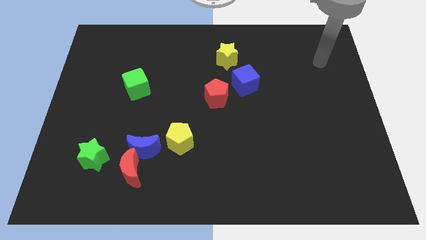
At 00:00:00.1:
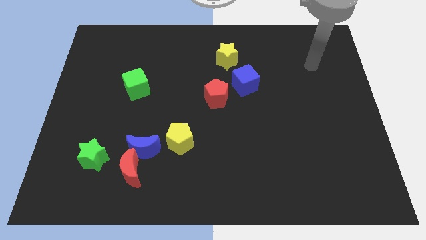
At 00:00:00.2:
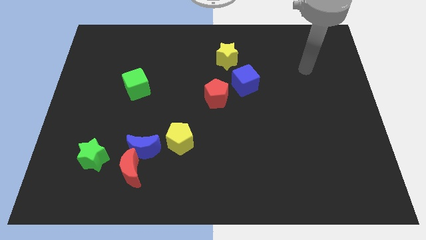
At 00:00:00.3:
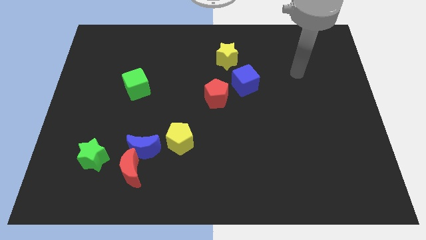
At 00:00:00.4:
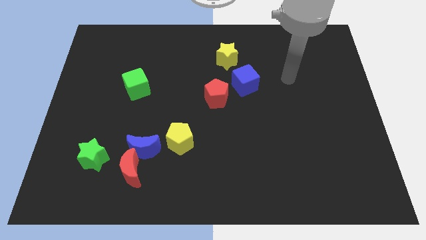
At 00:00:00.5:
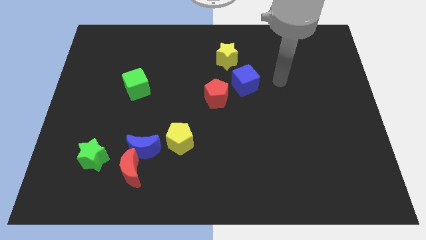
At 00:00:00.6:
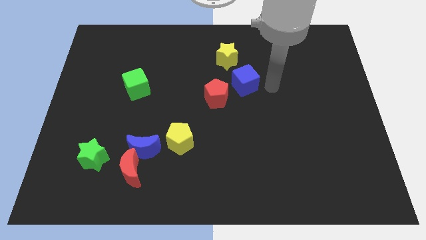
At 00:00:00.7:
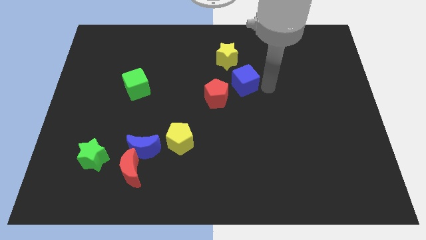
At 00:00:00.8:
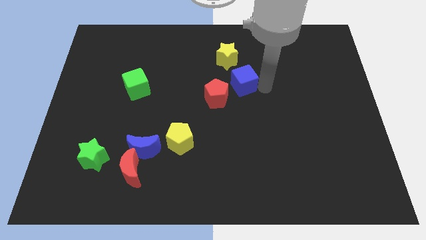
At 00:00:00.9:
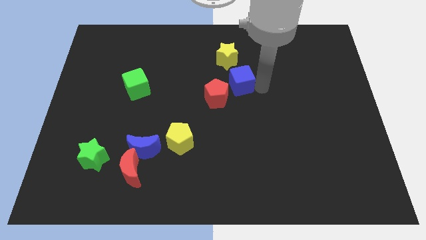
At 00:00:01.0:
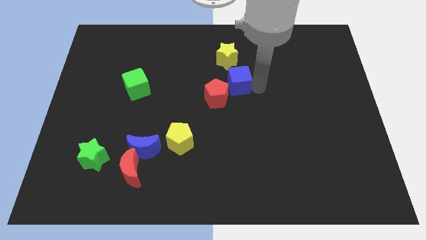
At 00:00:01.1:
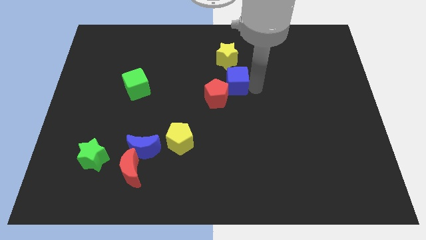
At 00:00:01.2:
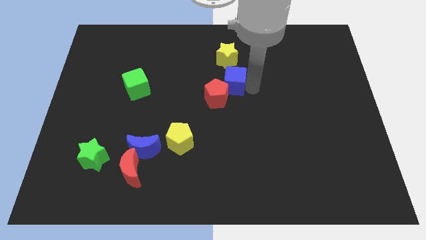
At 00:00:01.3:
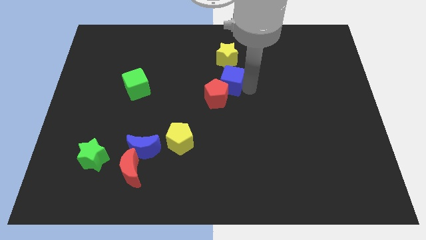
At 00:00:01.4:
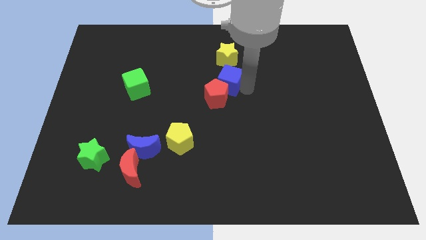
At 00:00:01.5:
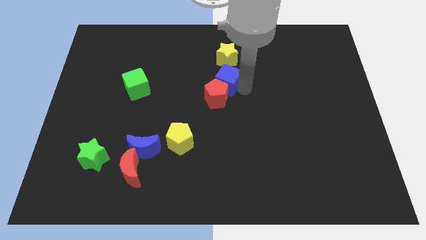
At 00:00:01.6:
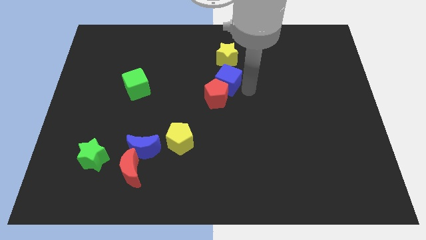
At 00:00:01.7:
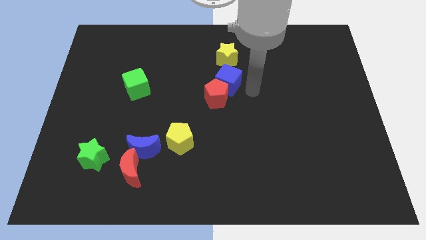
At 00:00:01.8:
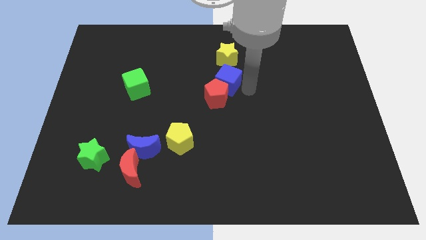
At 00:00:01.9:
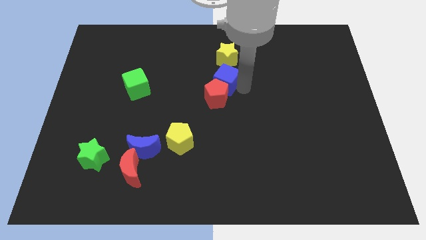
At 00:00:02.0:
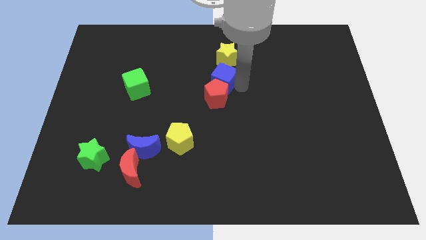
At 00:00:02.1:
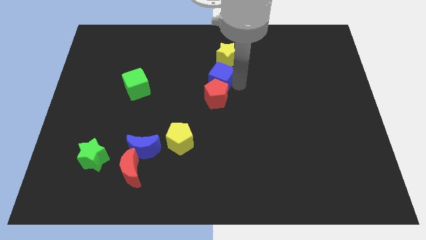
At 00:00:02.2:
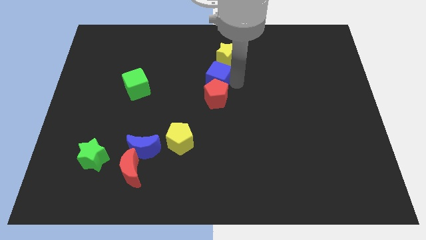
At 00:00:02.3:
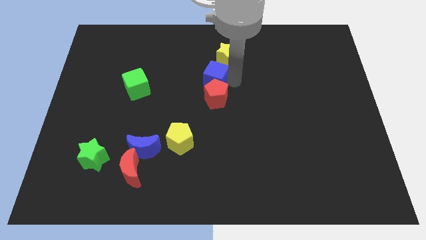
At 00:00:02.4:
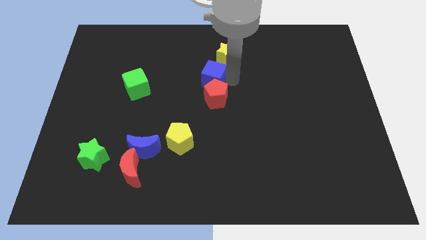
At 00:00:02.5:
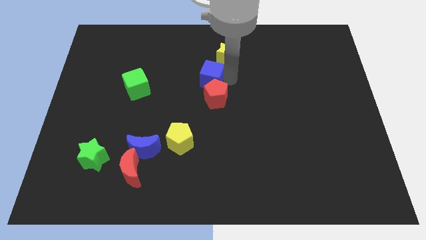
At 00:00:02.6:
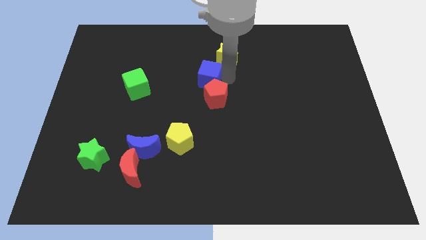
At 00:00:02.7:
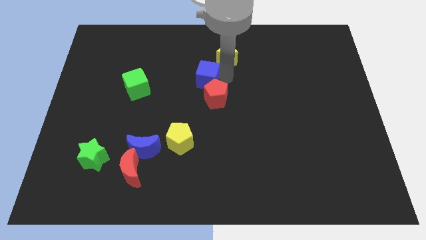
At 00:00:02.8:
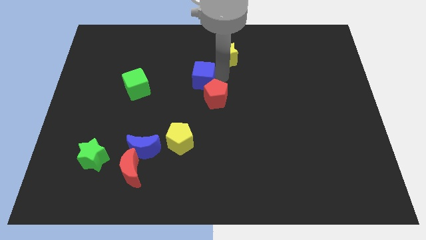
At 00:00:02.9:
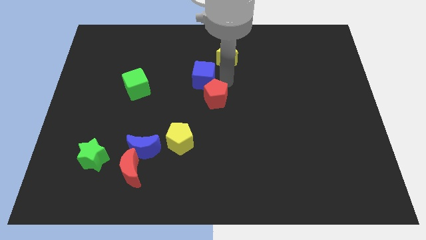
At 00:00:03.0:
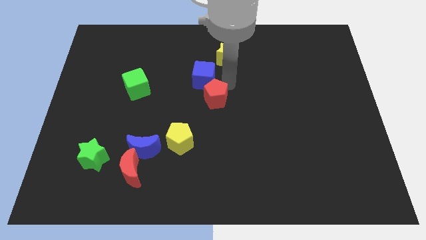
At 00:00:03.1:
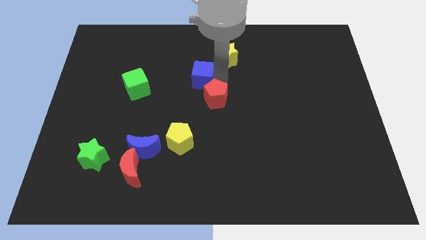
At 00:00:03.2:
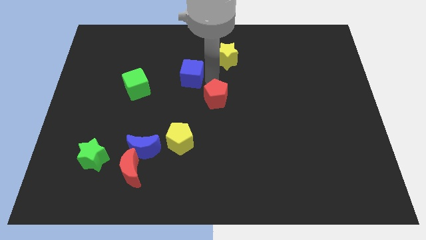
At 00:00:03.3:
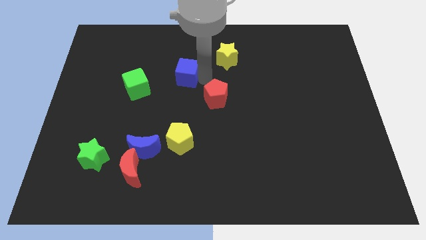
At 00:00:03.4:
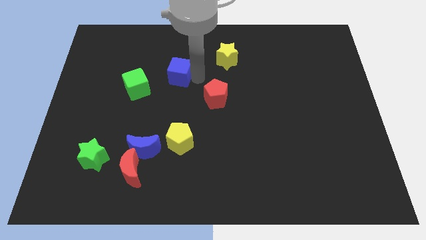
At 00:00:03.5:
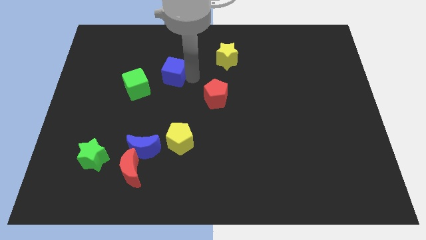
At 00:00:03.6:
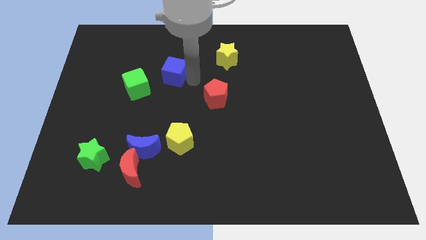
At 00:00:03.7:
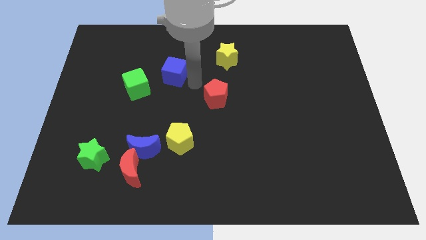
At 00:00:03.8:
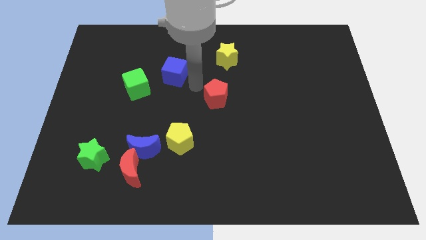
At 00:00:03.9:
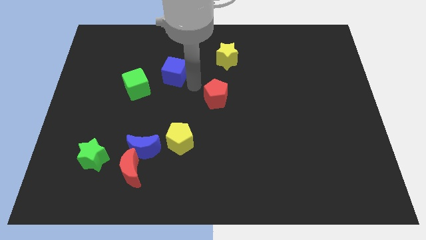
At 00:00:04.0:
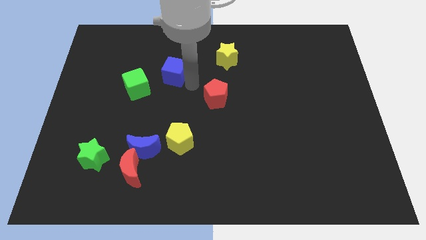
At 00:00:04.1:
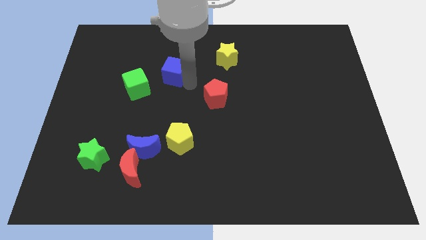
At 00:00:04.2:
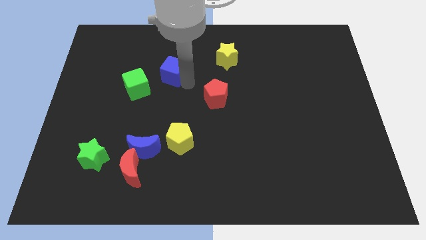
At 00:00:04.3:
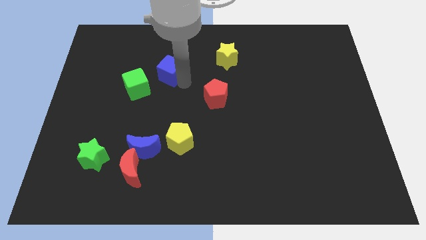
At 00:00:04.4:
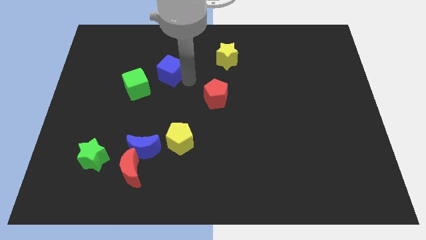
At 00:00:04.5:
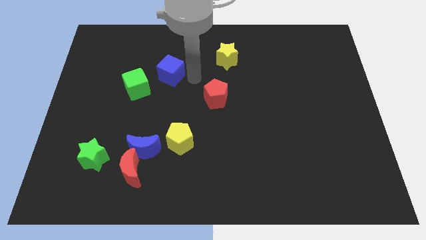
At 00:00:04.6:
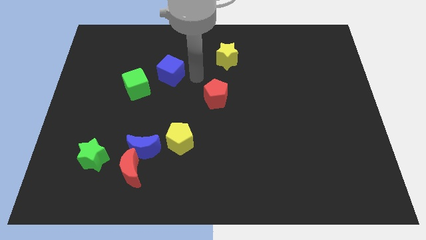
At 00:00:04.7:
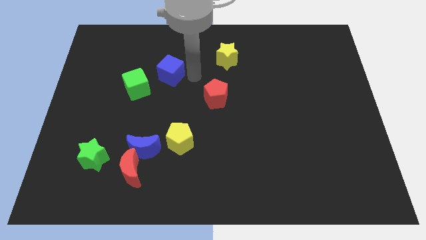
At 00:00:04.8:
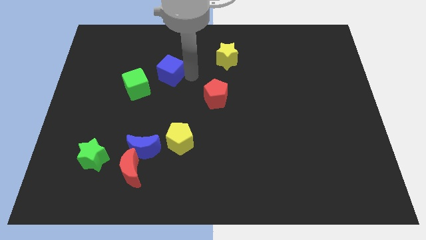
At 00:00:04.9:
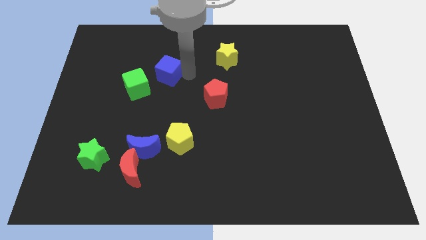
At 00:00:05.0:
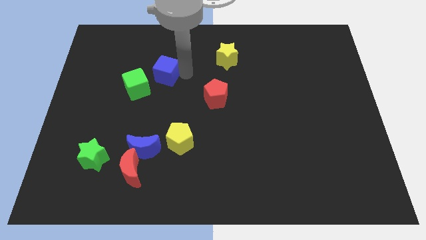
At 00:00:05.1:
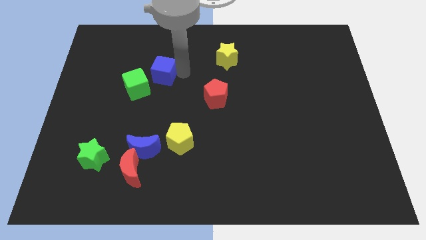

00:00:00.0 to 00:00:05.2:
slide the blue cube left

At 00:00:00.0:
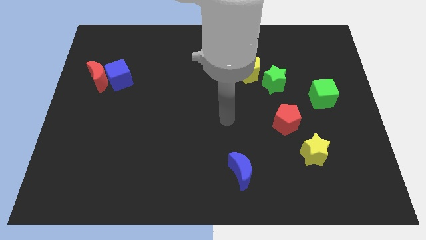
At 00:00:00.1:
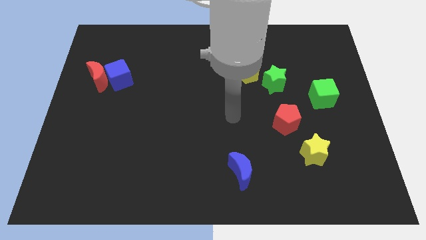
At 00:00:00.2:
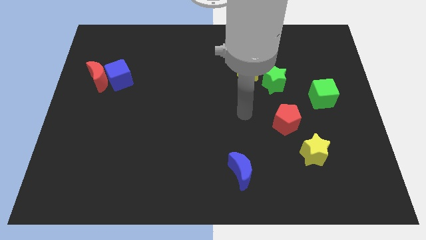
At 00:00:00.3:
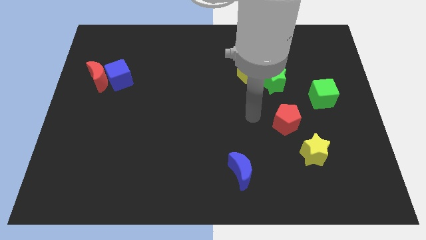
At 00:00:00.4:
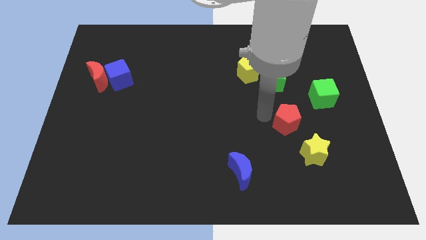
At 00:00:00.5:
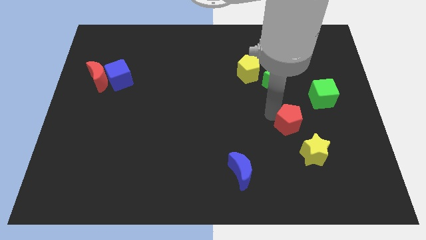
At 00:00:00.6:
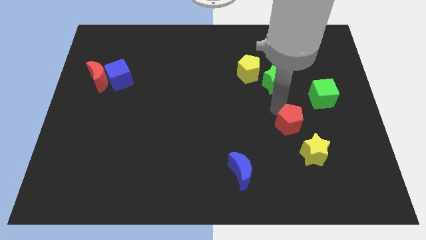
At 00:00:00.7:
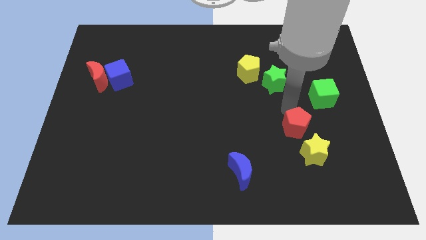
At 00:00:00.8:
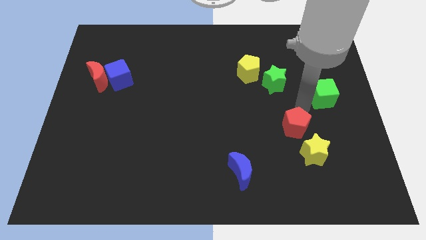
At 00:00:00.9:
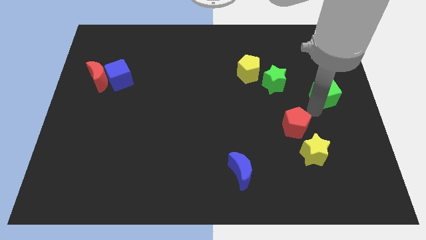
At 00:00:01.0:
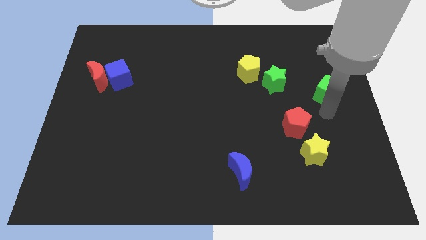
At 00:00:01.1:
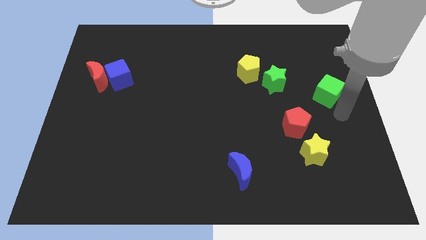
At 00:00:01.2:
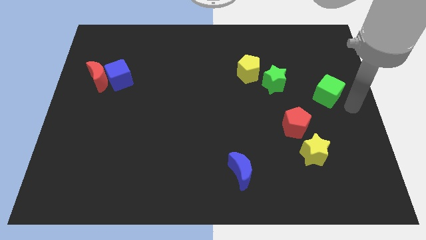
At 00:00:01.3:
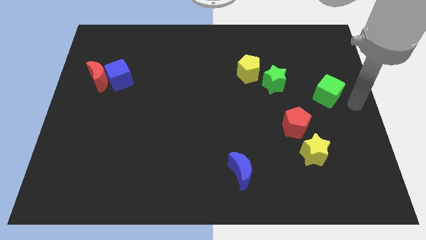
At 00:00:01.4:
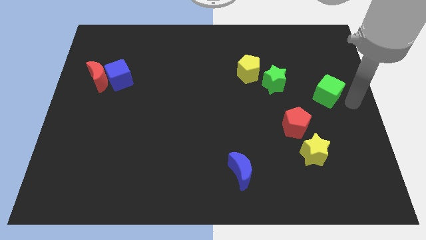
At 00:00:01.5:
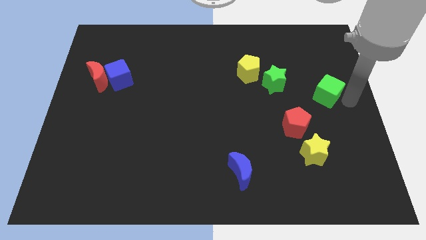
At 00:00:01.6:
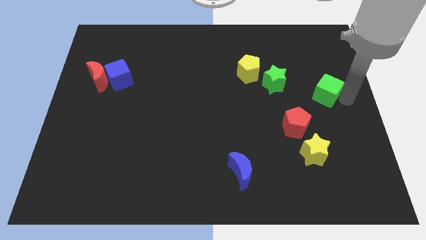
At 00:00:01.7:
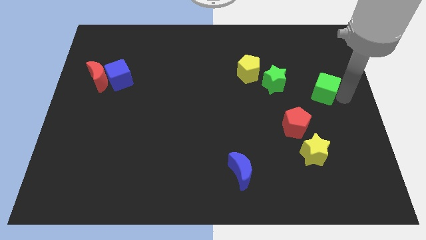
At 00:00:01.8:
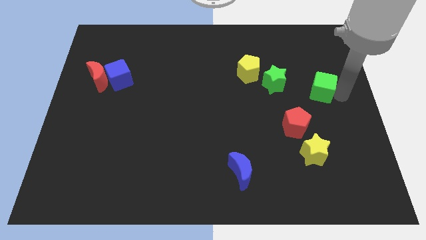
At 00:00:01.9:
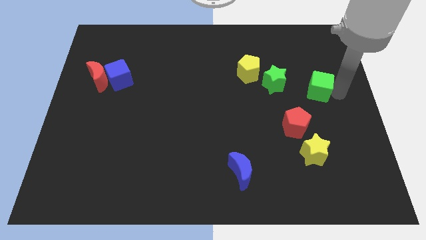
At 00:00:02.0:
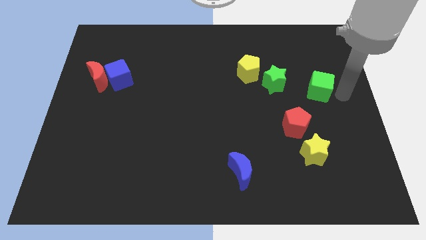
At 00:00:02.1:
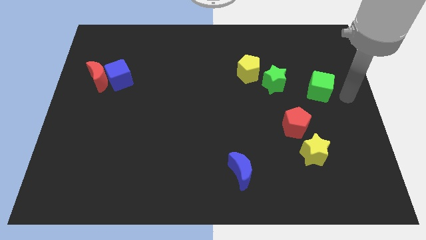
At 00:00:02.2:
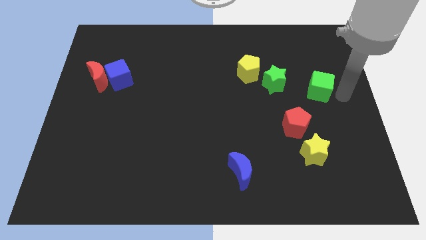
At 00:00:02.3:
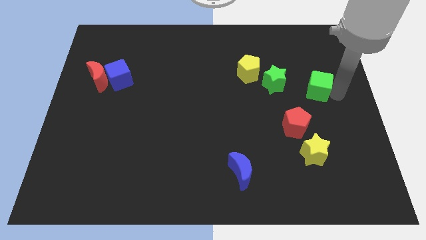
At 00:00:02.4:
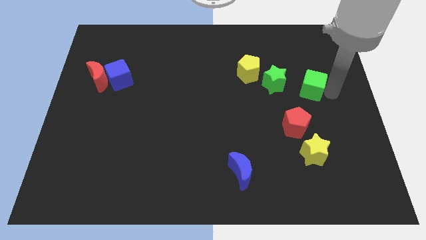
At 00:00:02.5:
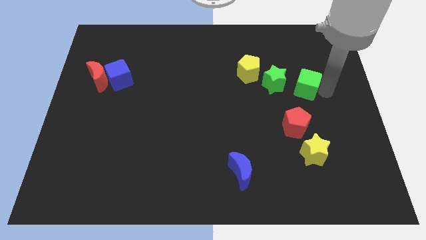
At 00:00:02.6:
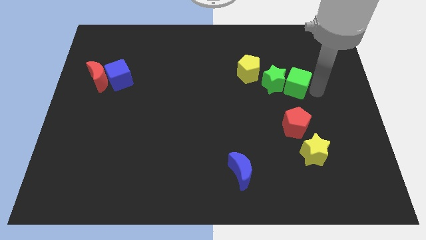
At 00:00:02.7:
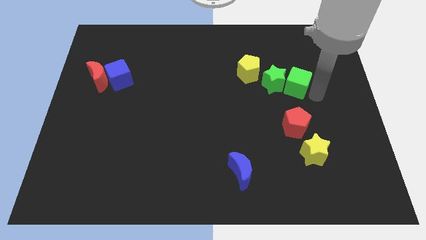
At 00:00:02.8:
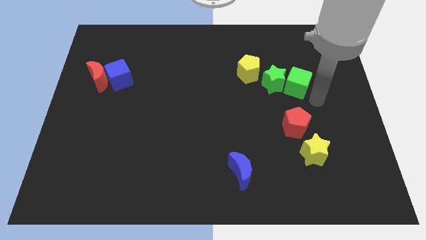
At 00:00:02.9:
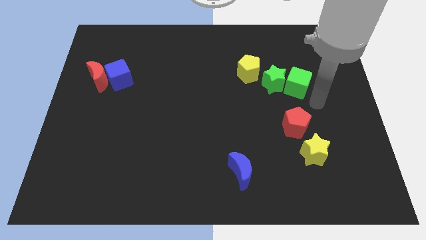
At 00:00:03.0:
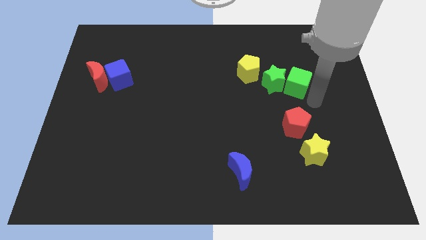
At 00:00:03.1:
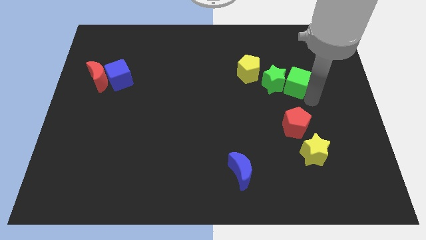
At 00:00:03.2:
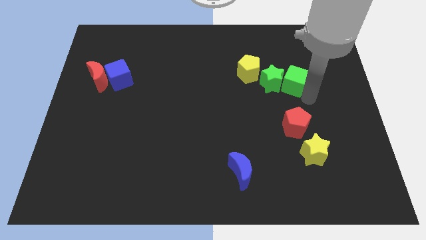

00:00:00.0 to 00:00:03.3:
push the green cube a little up and to the left
